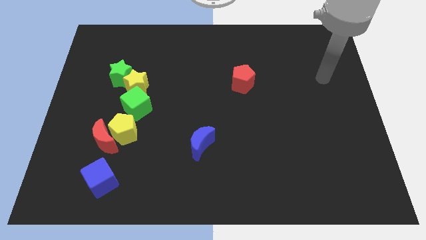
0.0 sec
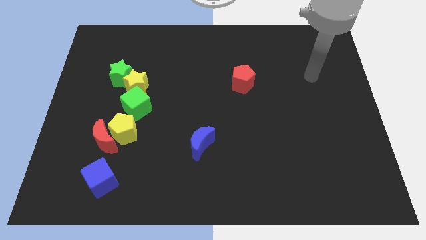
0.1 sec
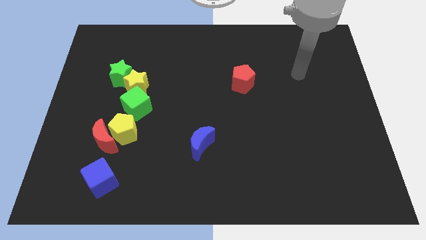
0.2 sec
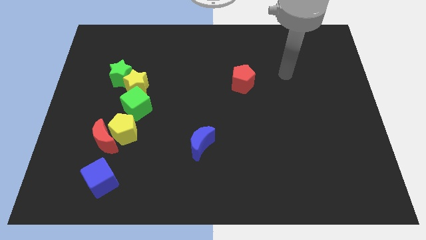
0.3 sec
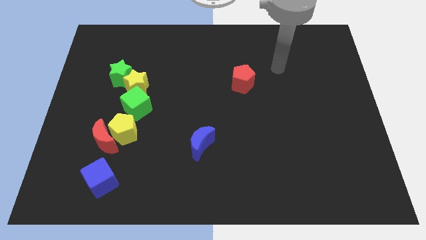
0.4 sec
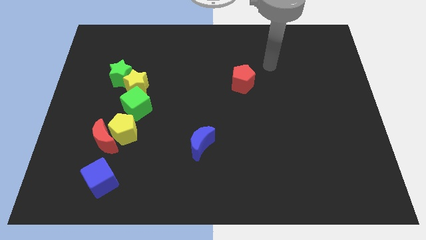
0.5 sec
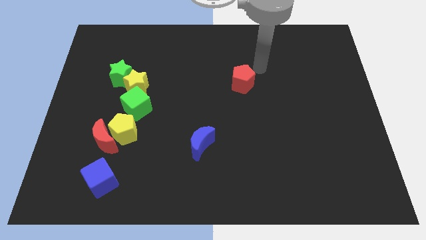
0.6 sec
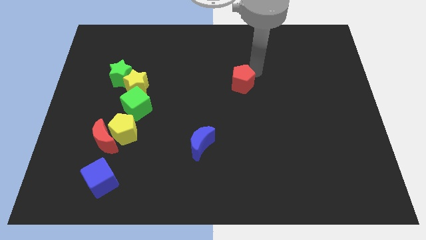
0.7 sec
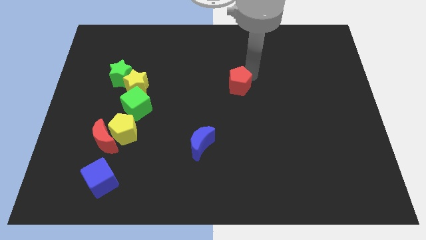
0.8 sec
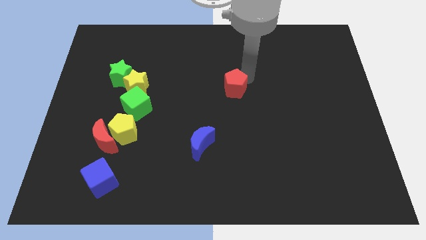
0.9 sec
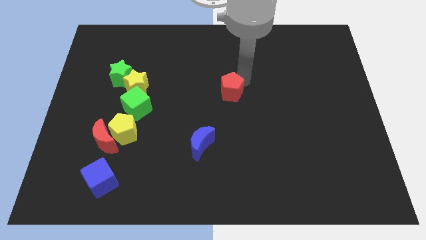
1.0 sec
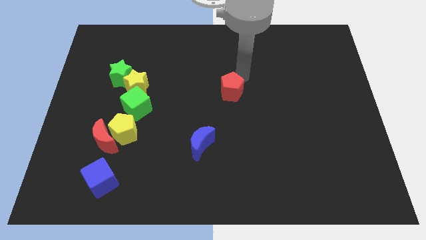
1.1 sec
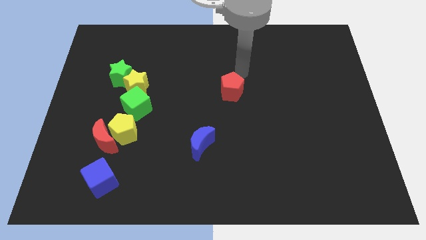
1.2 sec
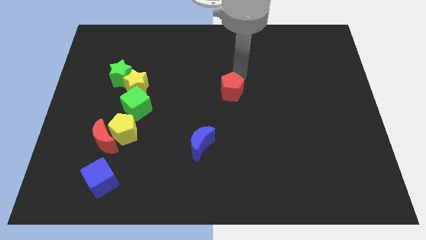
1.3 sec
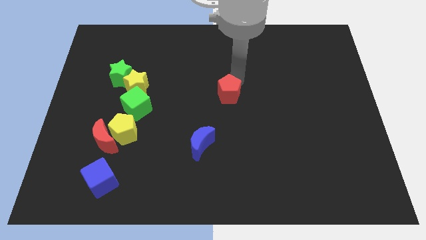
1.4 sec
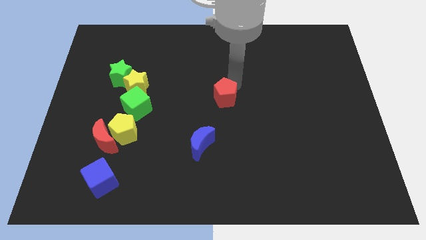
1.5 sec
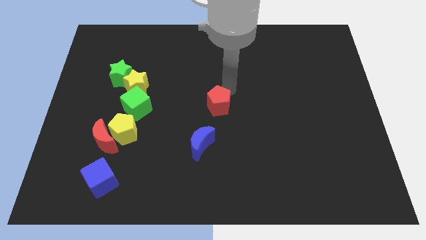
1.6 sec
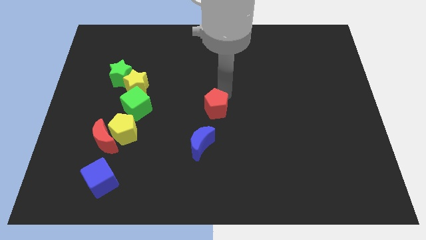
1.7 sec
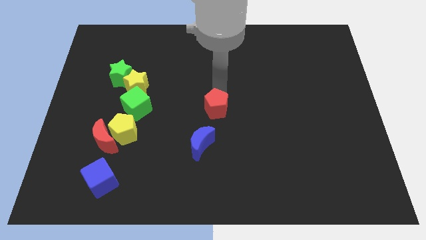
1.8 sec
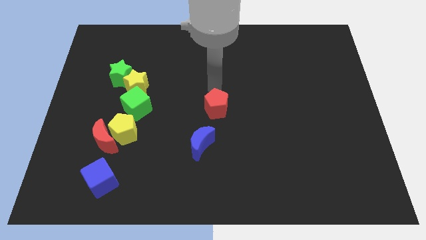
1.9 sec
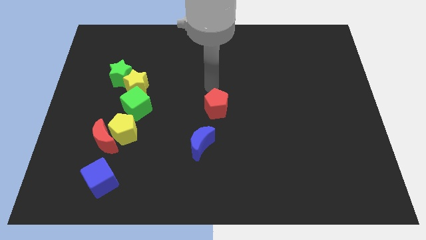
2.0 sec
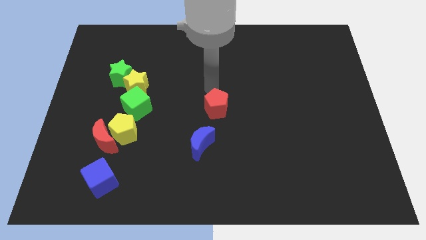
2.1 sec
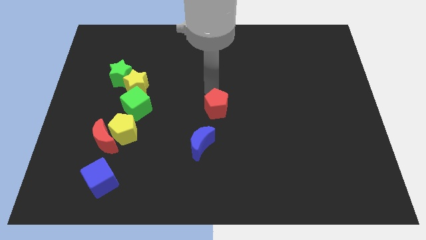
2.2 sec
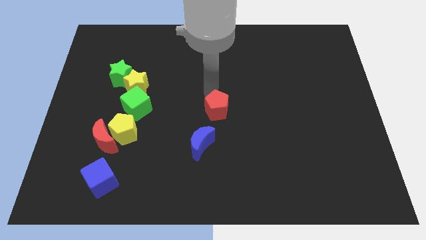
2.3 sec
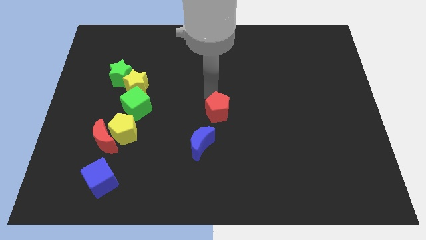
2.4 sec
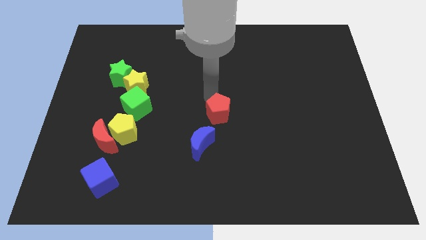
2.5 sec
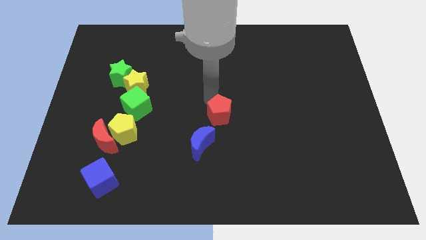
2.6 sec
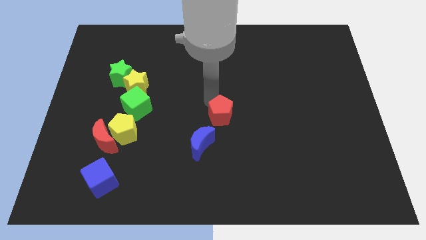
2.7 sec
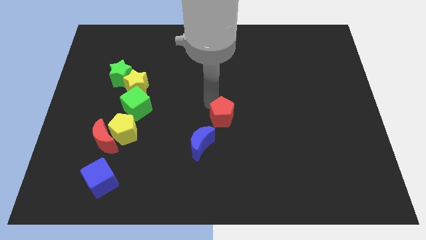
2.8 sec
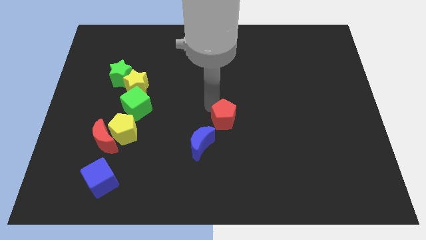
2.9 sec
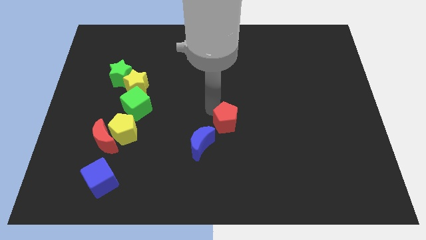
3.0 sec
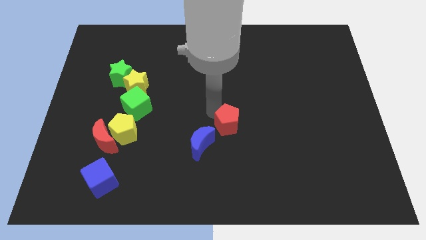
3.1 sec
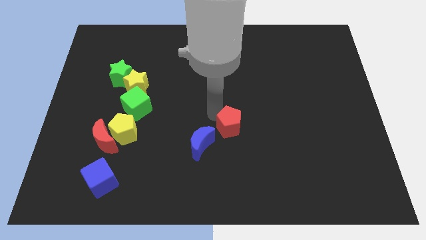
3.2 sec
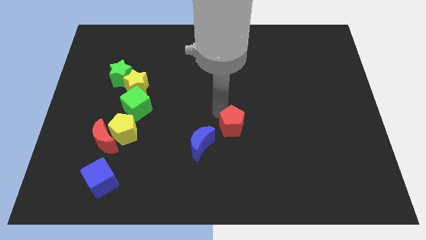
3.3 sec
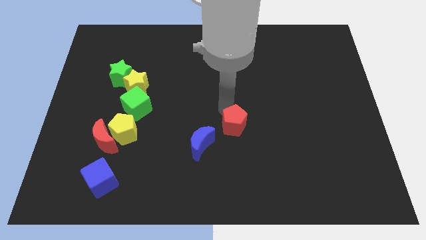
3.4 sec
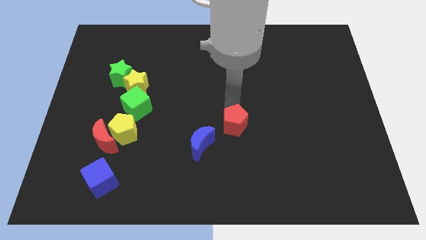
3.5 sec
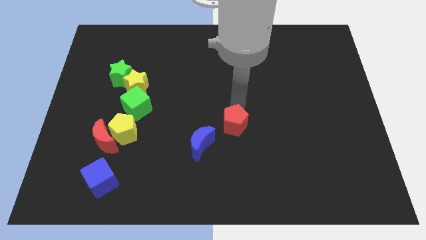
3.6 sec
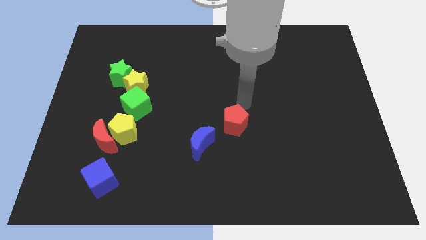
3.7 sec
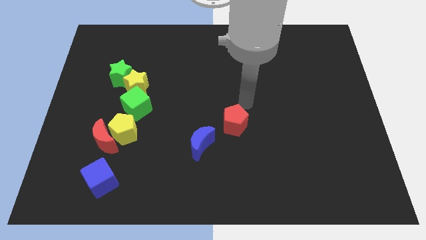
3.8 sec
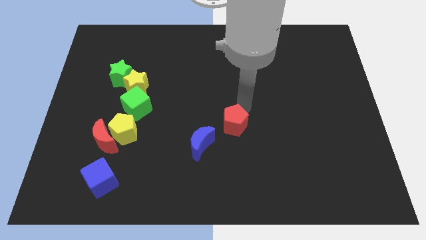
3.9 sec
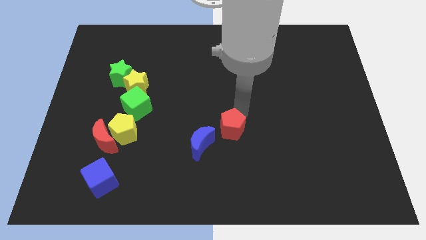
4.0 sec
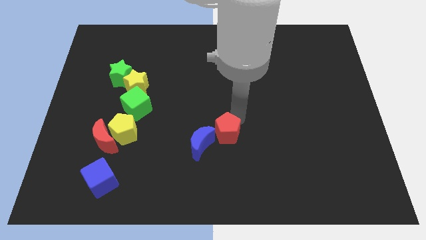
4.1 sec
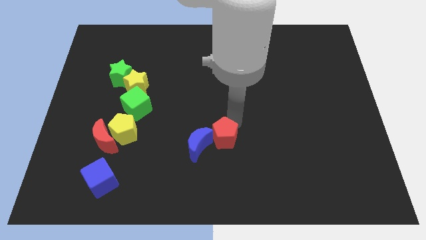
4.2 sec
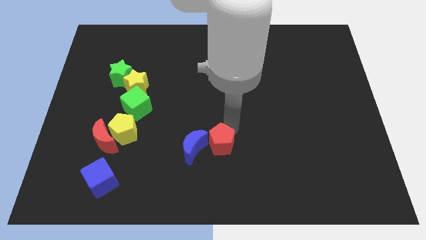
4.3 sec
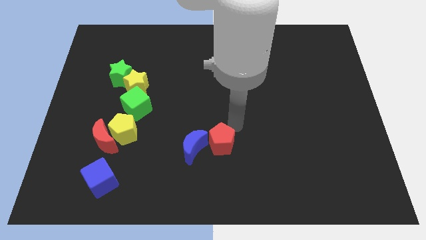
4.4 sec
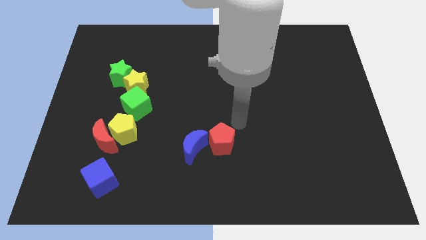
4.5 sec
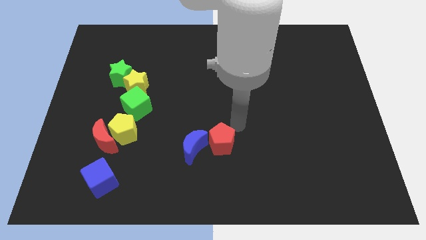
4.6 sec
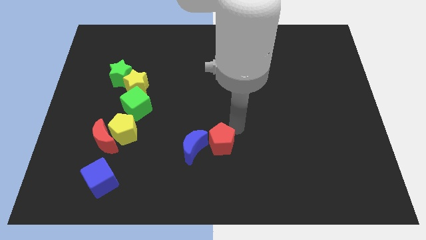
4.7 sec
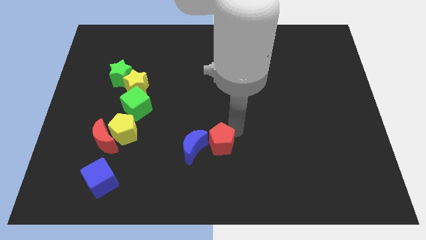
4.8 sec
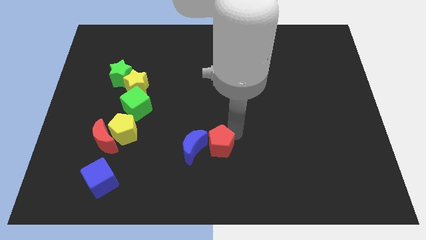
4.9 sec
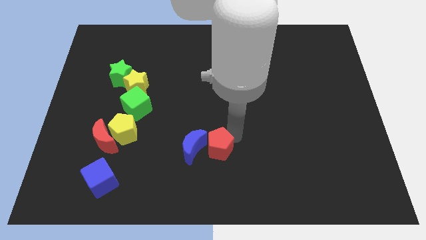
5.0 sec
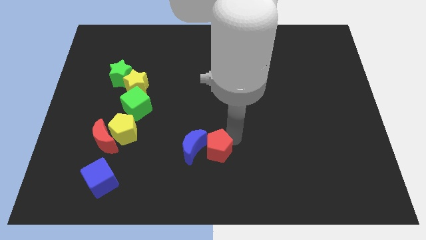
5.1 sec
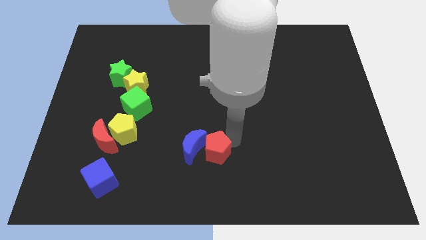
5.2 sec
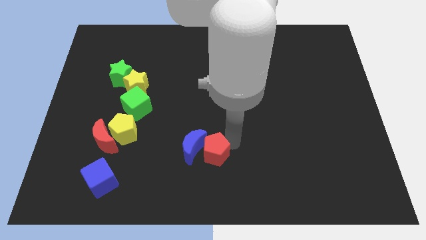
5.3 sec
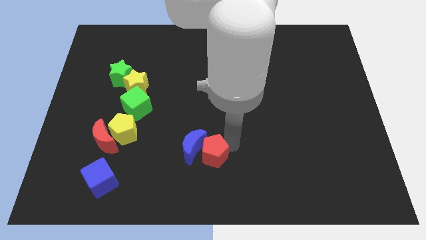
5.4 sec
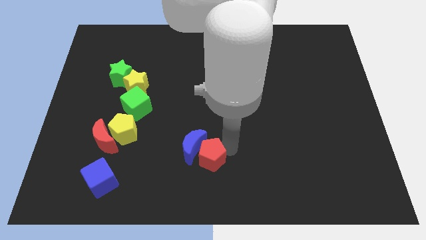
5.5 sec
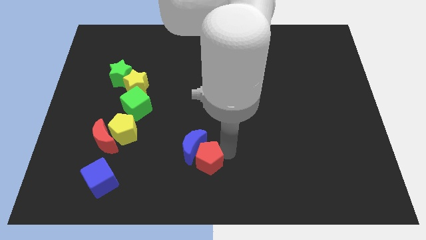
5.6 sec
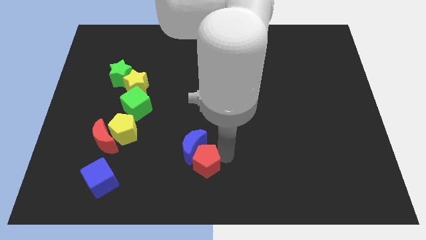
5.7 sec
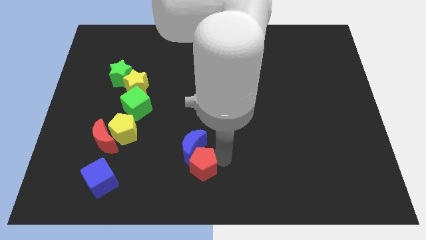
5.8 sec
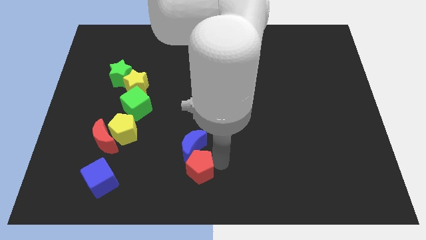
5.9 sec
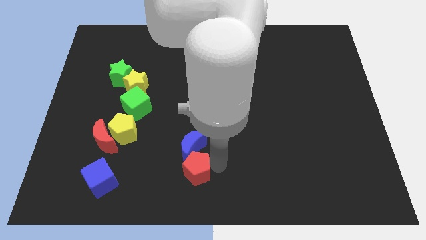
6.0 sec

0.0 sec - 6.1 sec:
slide the red pentagon diagonally down and to the left of the blue moon

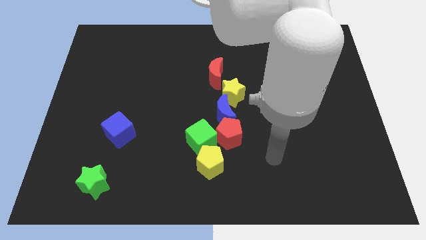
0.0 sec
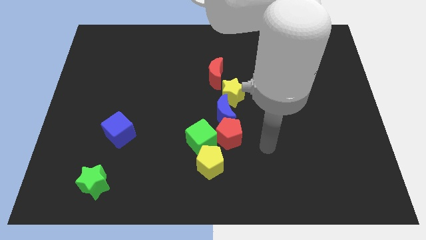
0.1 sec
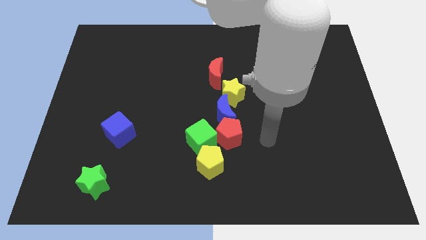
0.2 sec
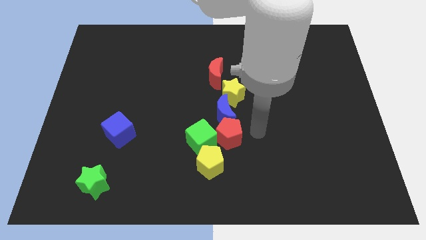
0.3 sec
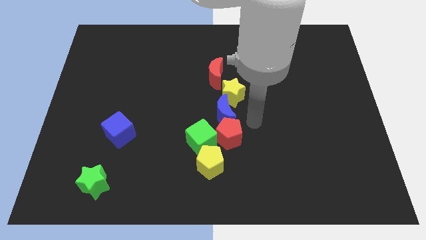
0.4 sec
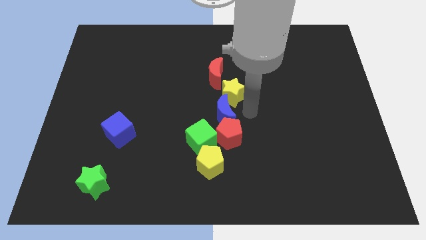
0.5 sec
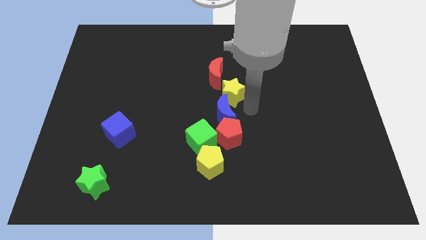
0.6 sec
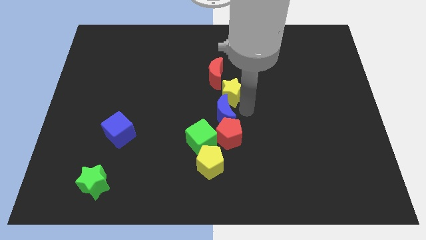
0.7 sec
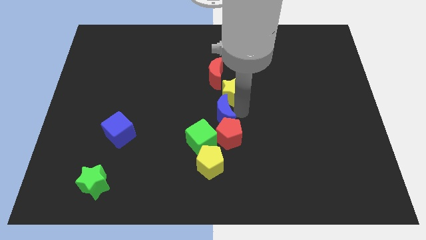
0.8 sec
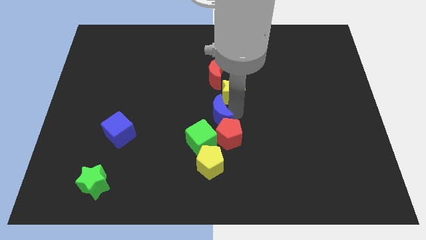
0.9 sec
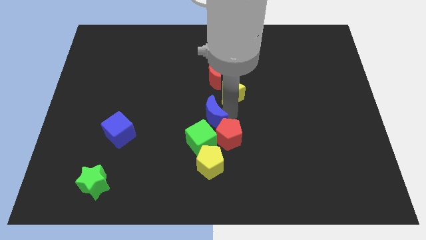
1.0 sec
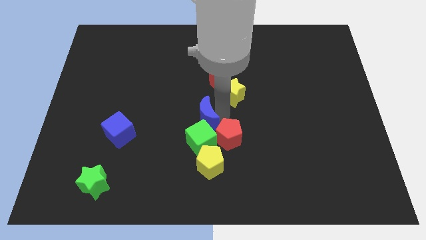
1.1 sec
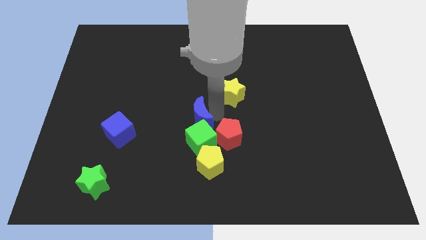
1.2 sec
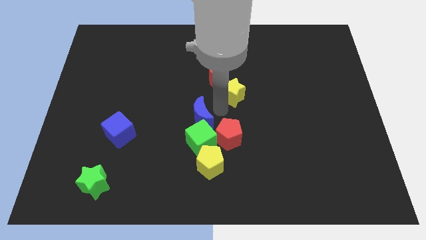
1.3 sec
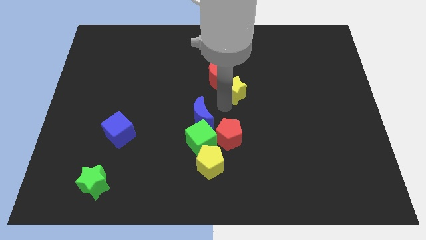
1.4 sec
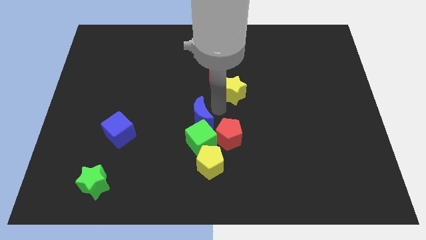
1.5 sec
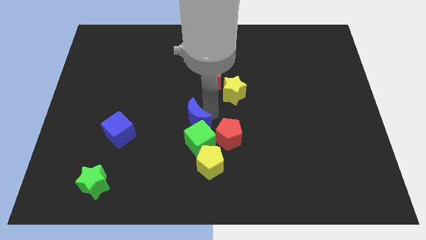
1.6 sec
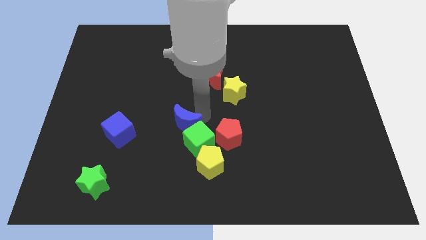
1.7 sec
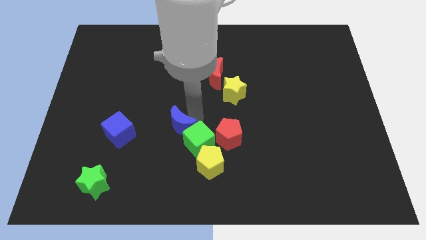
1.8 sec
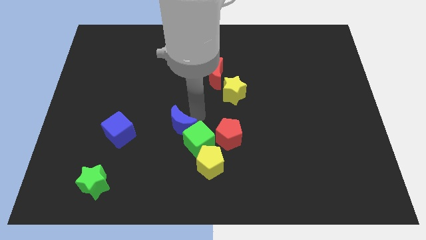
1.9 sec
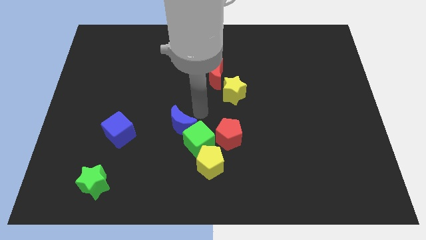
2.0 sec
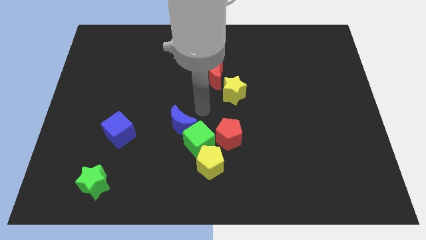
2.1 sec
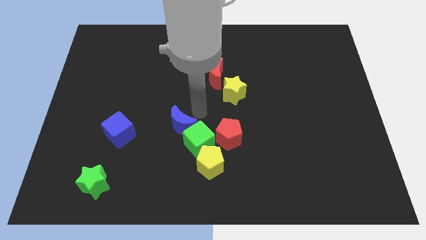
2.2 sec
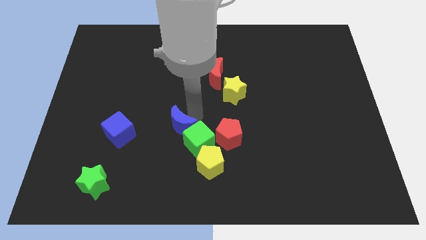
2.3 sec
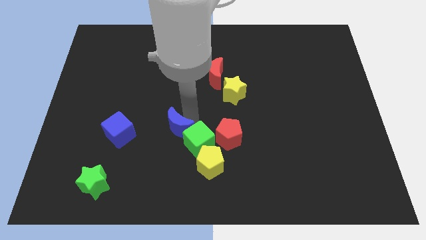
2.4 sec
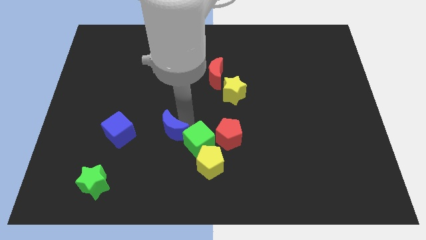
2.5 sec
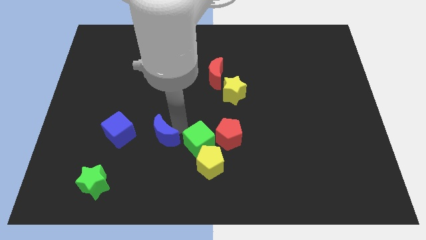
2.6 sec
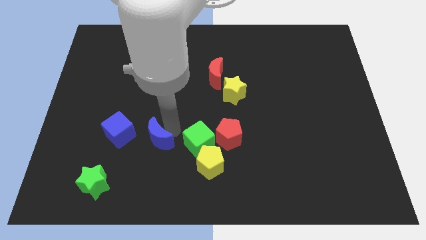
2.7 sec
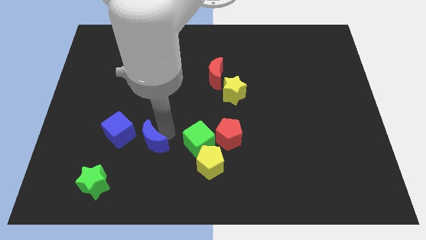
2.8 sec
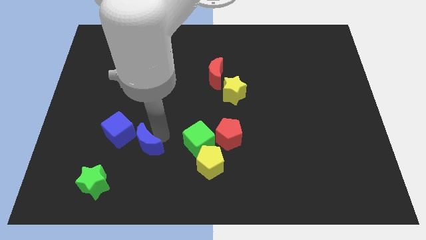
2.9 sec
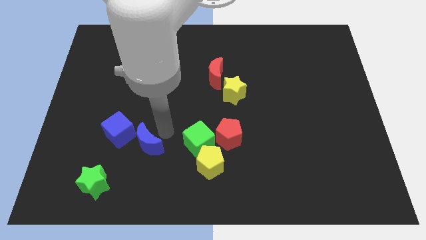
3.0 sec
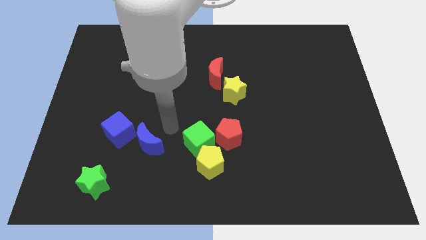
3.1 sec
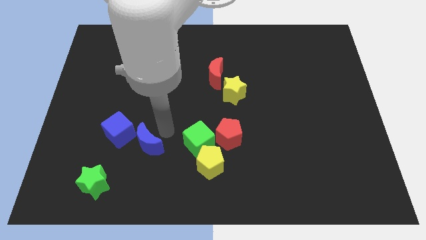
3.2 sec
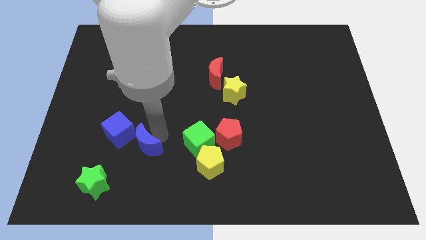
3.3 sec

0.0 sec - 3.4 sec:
move the blue moon to the top right side of the green star
